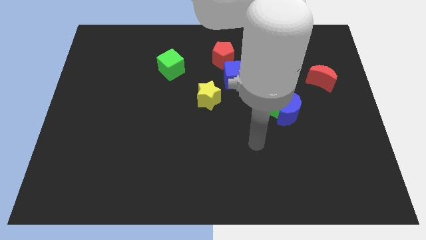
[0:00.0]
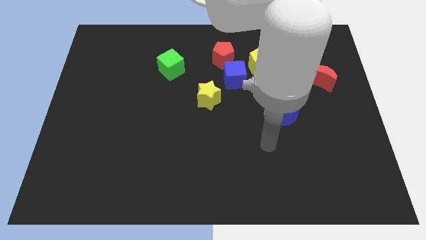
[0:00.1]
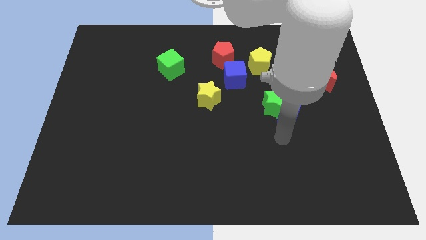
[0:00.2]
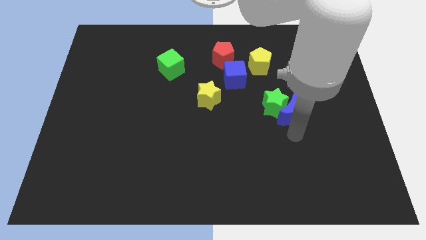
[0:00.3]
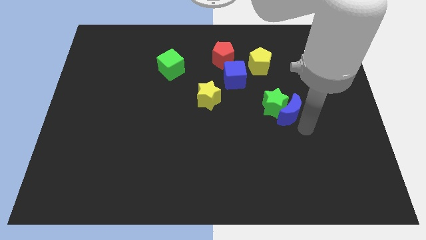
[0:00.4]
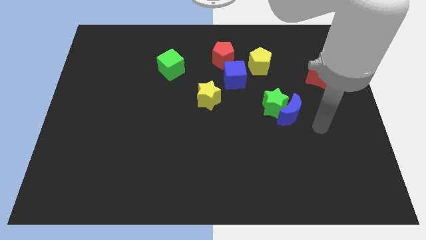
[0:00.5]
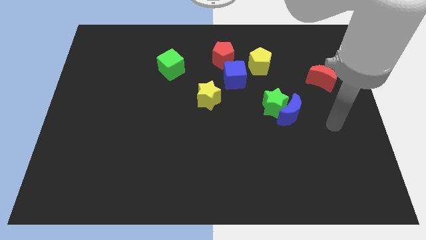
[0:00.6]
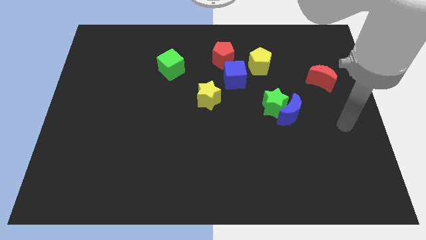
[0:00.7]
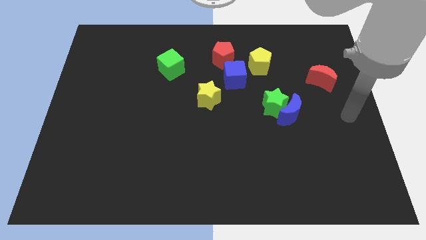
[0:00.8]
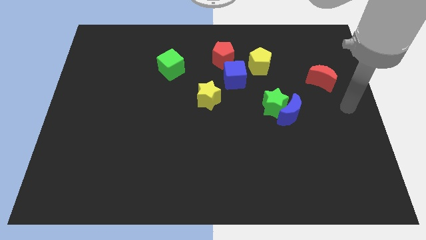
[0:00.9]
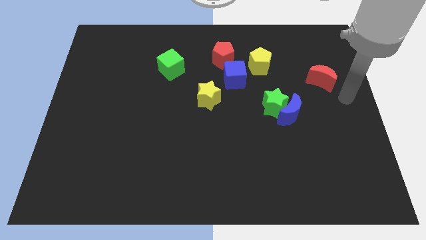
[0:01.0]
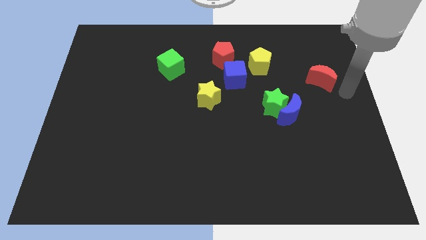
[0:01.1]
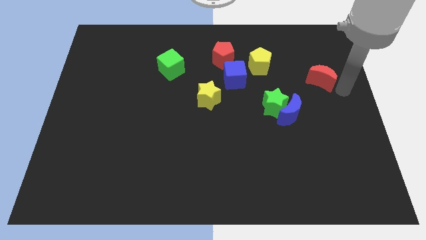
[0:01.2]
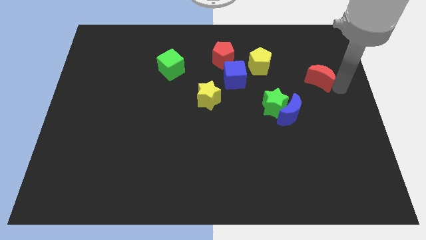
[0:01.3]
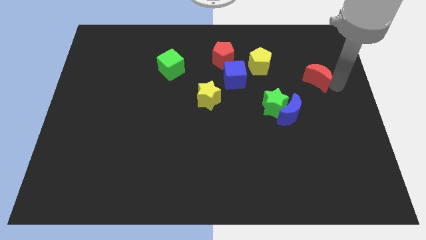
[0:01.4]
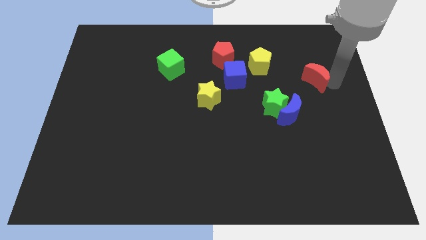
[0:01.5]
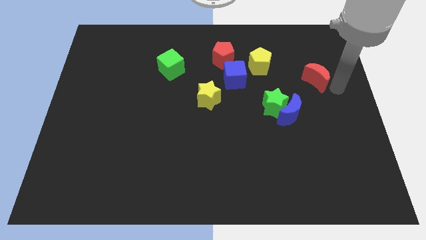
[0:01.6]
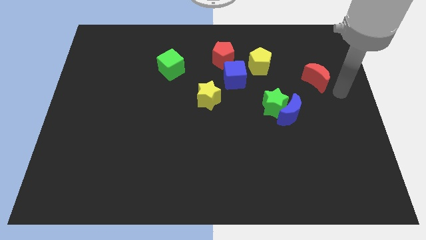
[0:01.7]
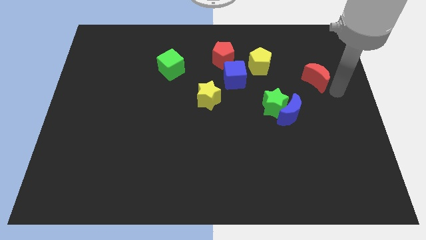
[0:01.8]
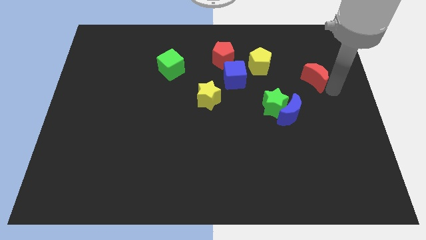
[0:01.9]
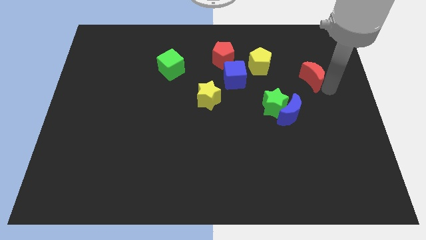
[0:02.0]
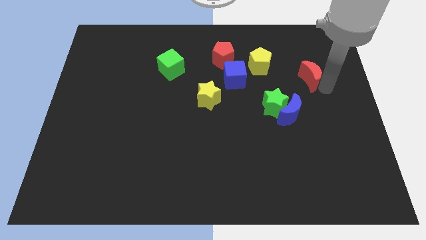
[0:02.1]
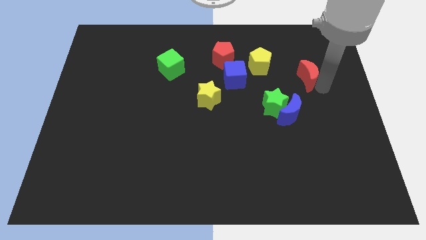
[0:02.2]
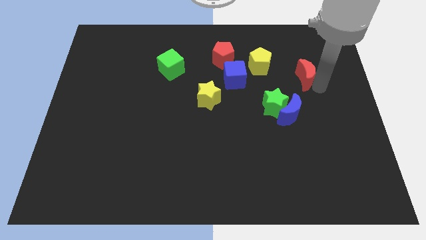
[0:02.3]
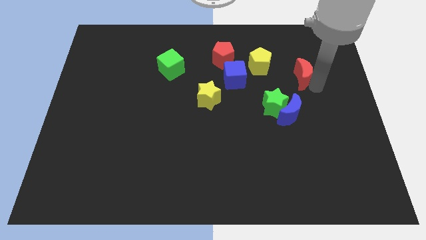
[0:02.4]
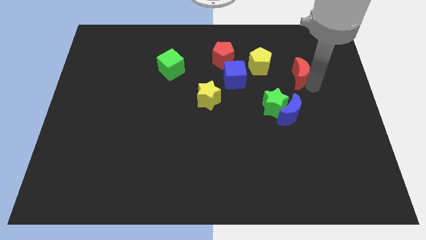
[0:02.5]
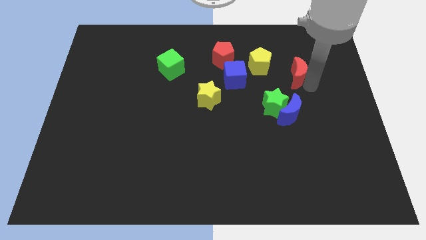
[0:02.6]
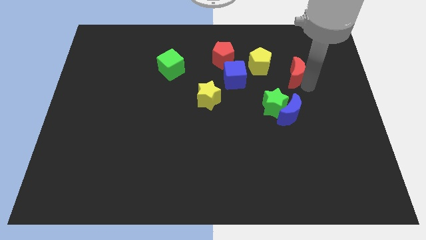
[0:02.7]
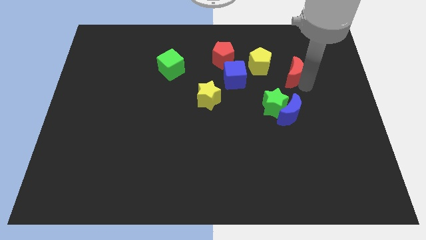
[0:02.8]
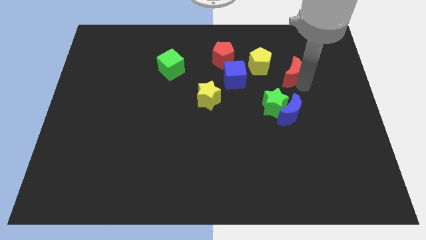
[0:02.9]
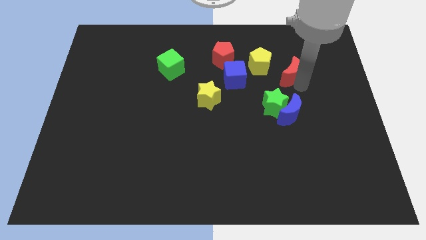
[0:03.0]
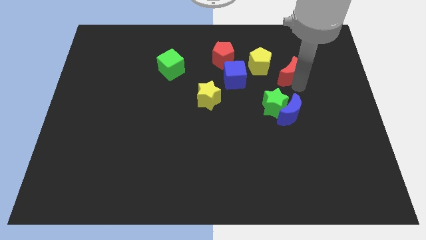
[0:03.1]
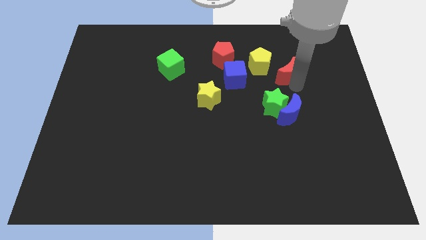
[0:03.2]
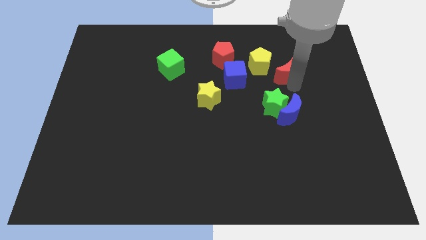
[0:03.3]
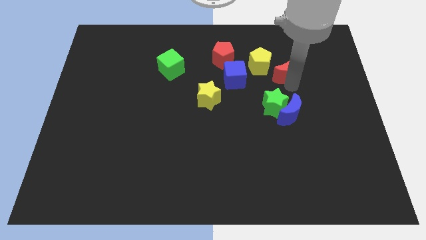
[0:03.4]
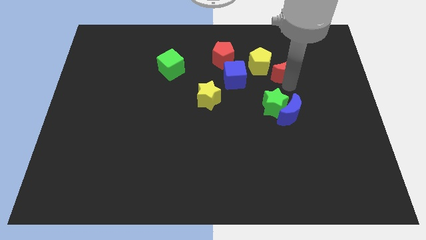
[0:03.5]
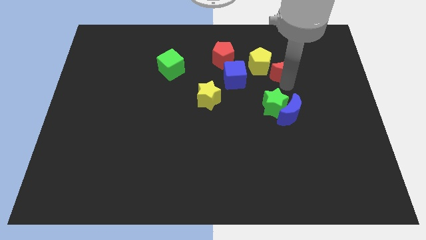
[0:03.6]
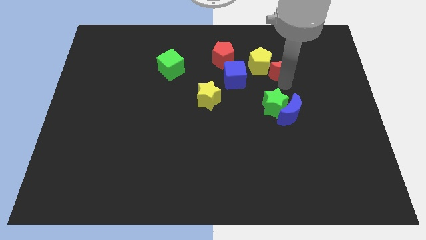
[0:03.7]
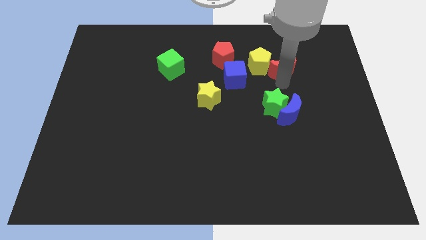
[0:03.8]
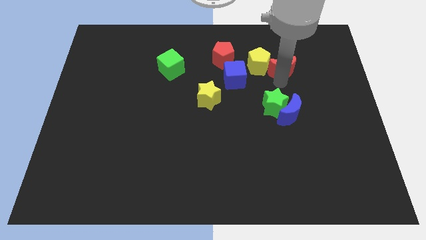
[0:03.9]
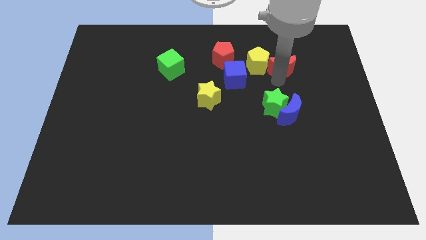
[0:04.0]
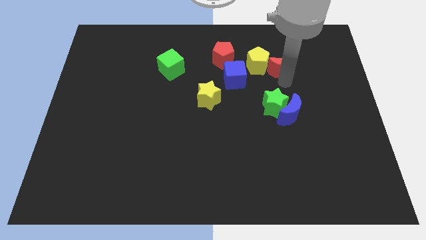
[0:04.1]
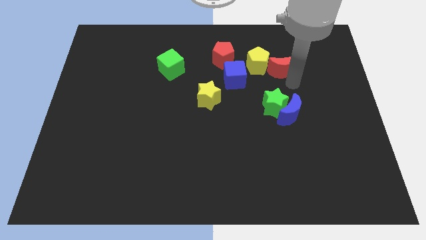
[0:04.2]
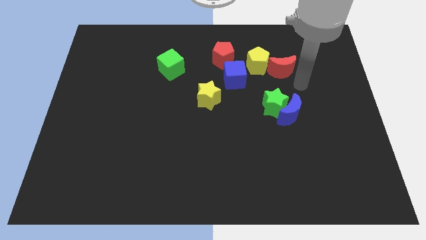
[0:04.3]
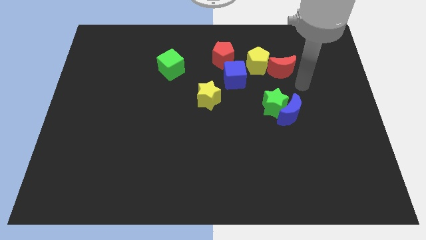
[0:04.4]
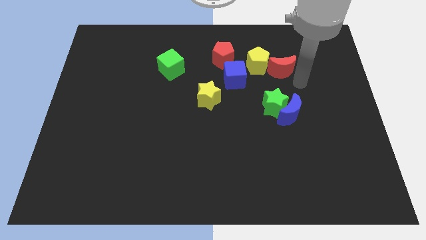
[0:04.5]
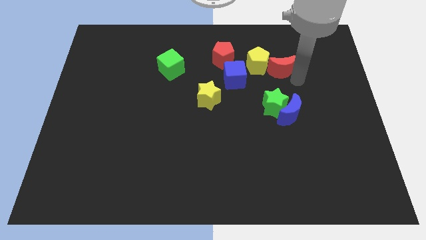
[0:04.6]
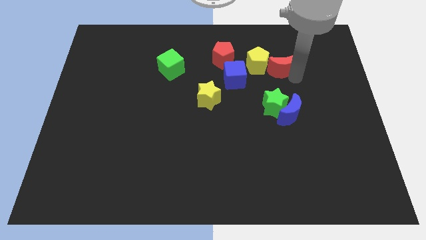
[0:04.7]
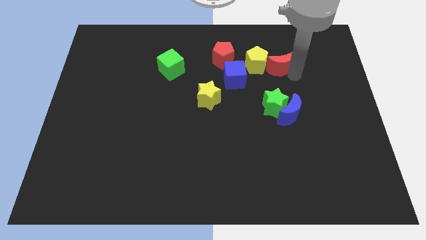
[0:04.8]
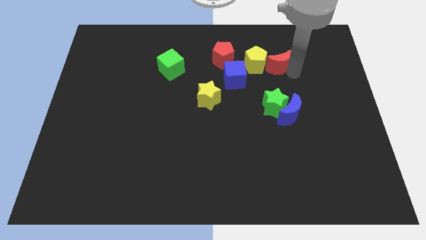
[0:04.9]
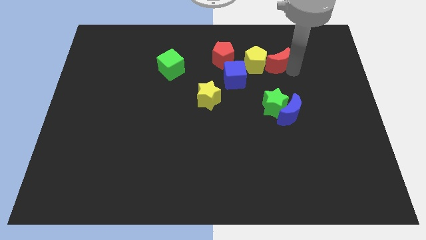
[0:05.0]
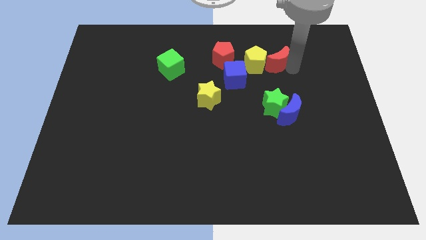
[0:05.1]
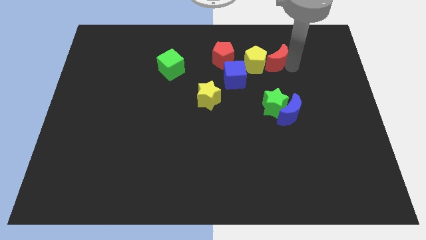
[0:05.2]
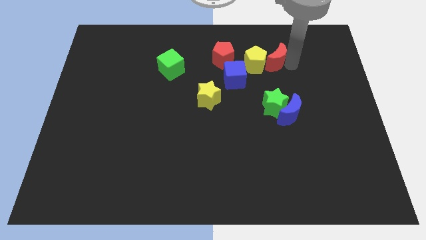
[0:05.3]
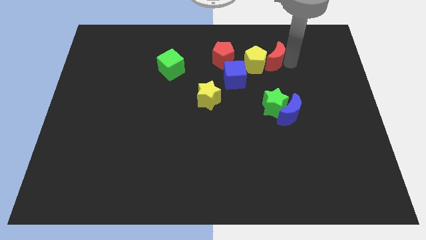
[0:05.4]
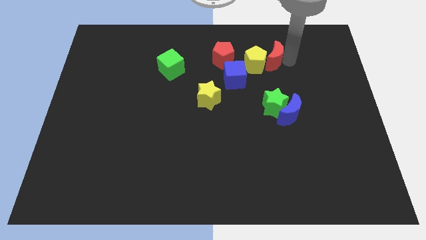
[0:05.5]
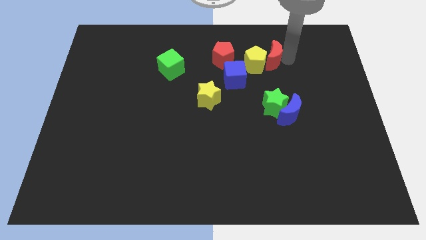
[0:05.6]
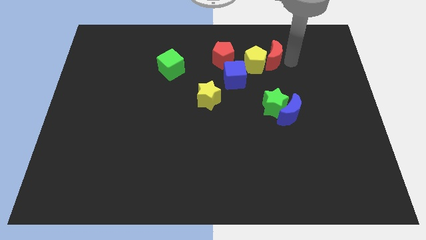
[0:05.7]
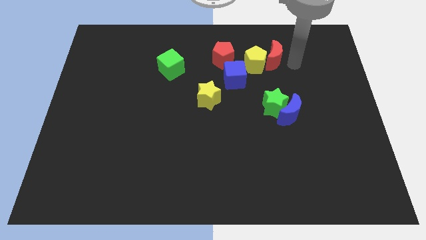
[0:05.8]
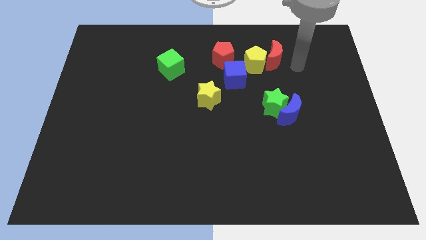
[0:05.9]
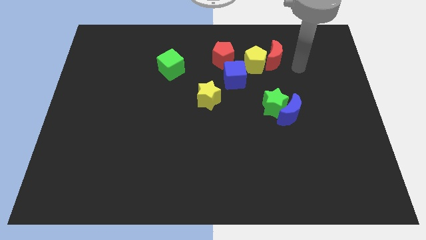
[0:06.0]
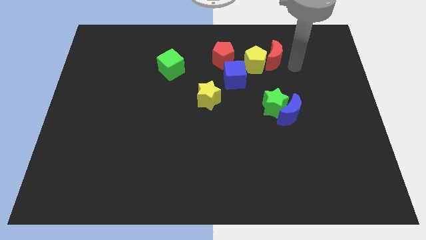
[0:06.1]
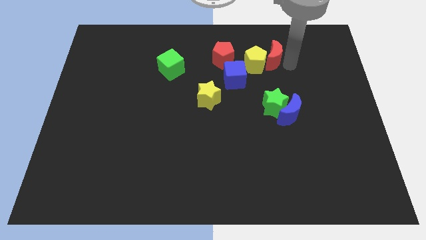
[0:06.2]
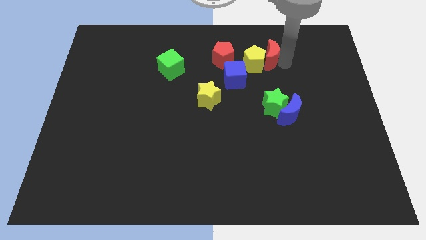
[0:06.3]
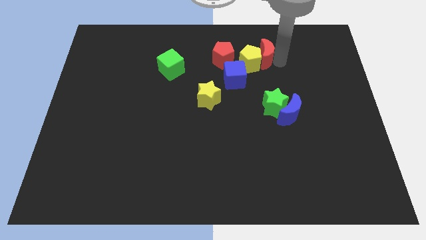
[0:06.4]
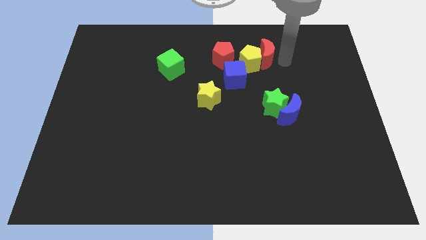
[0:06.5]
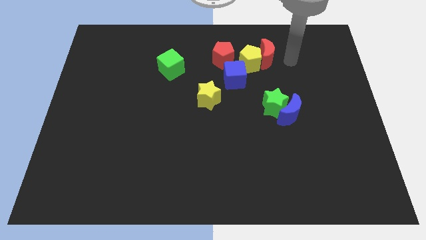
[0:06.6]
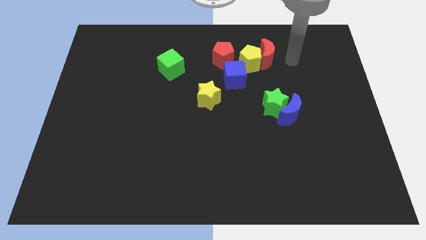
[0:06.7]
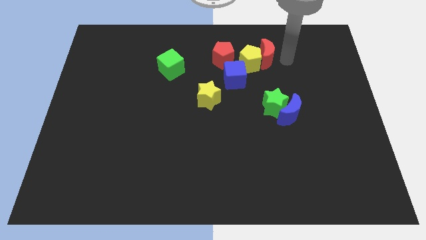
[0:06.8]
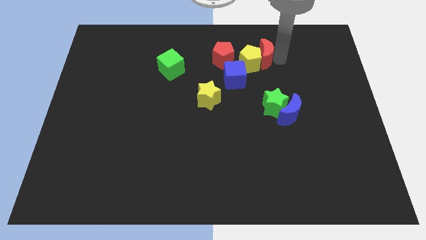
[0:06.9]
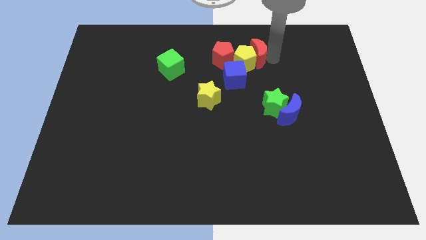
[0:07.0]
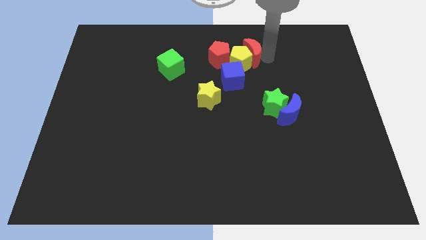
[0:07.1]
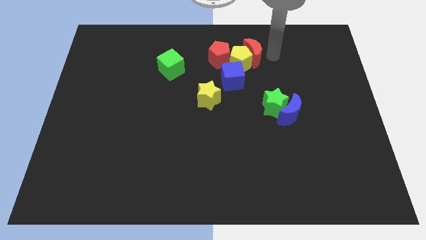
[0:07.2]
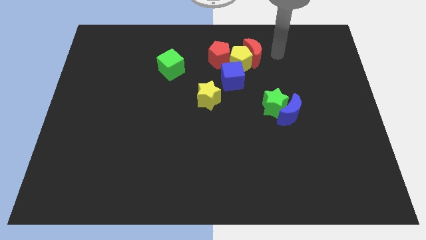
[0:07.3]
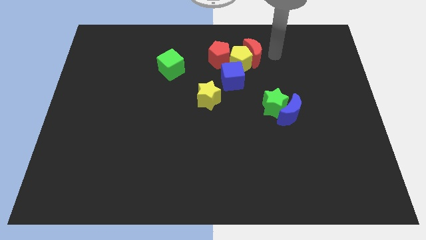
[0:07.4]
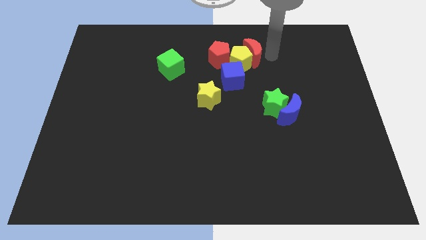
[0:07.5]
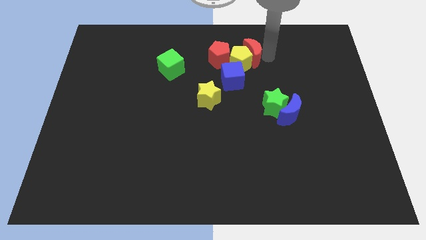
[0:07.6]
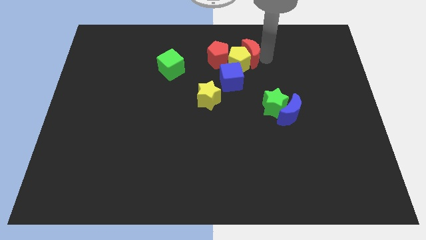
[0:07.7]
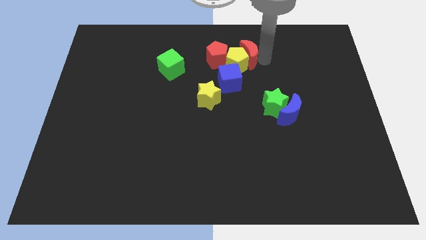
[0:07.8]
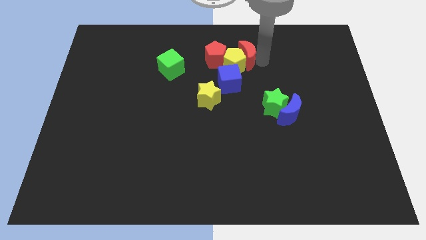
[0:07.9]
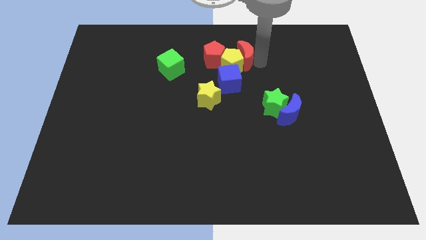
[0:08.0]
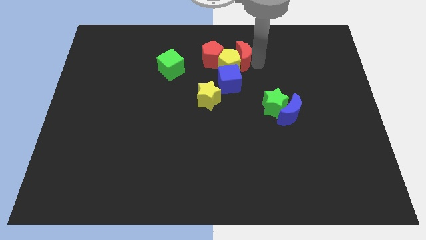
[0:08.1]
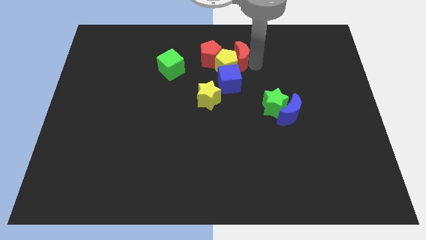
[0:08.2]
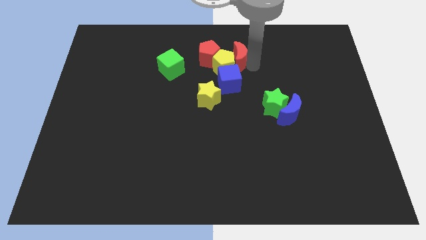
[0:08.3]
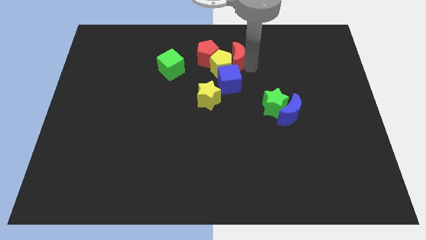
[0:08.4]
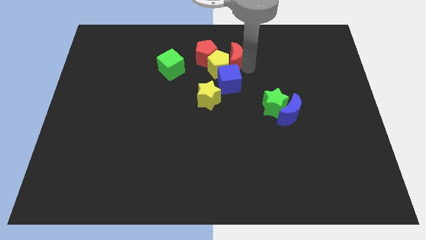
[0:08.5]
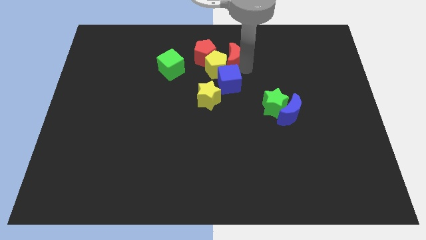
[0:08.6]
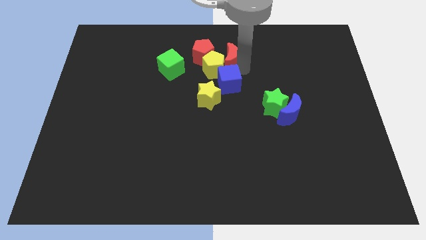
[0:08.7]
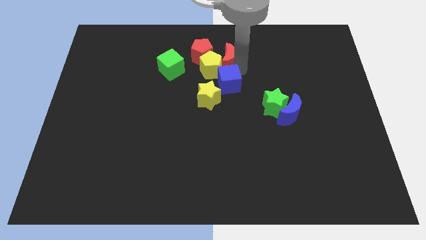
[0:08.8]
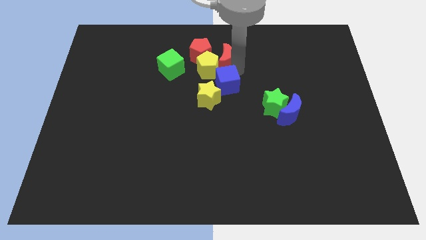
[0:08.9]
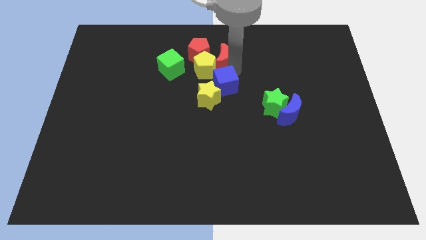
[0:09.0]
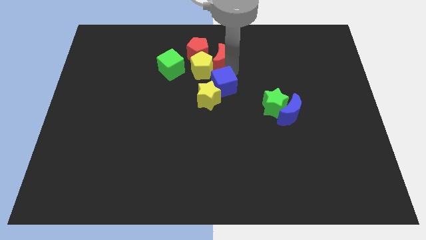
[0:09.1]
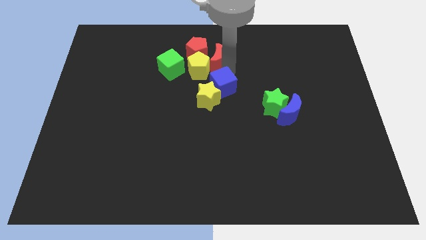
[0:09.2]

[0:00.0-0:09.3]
slide the red moon towards the red pentagon
